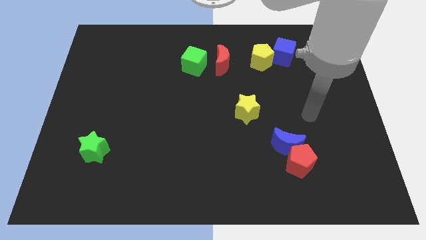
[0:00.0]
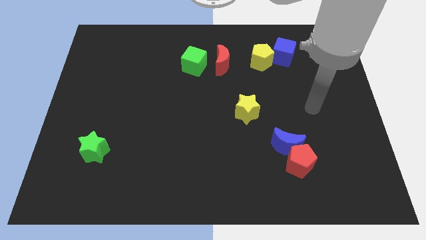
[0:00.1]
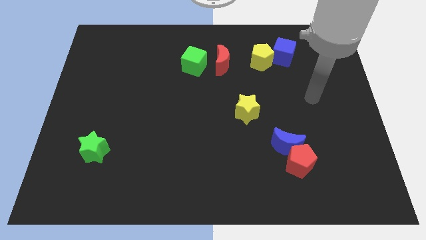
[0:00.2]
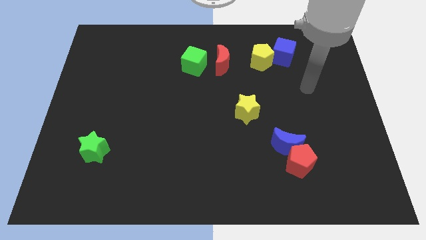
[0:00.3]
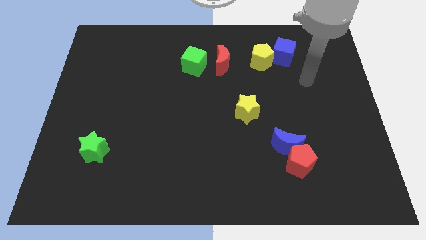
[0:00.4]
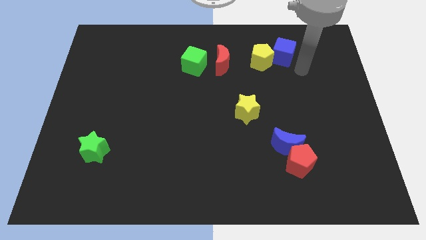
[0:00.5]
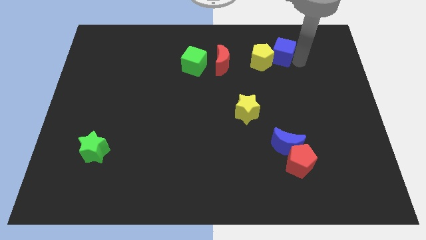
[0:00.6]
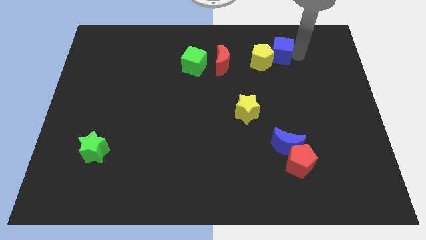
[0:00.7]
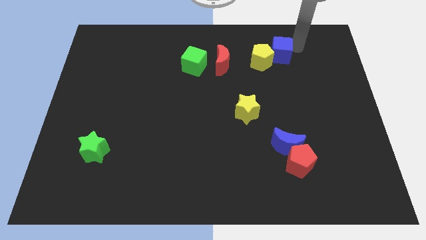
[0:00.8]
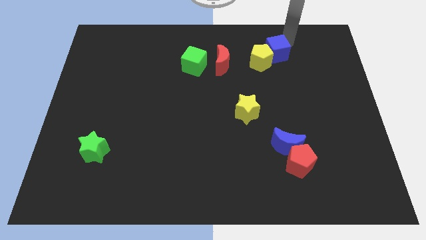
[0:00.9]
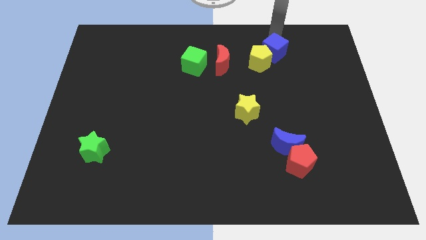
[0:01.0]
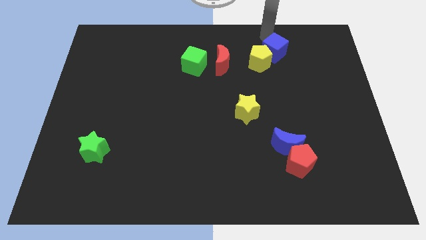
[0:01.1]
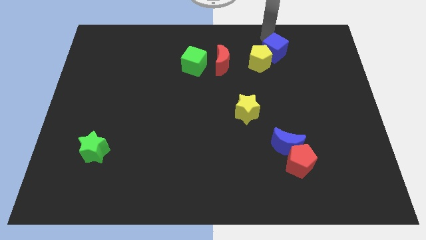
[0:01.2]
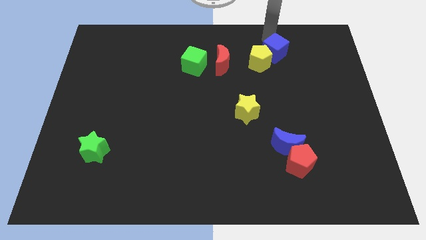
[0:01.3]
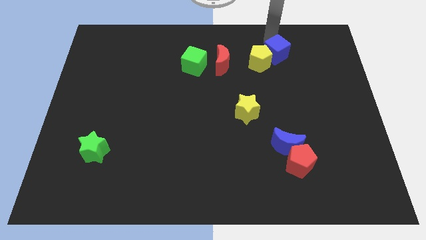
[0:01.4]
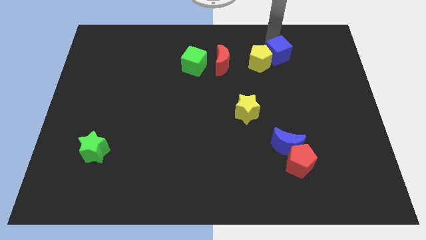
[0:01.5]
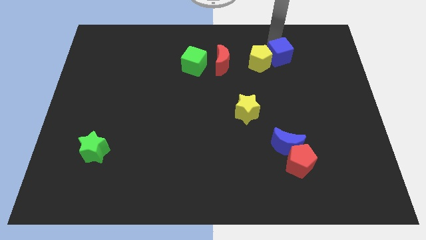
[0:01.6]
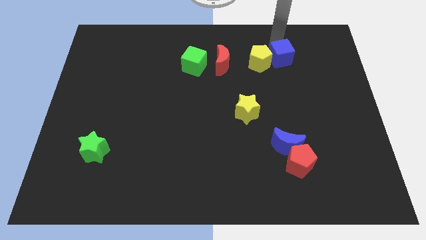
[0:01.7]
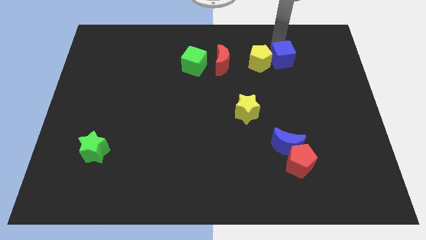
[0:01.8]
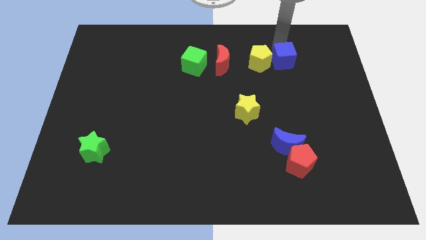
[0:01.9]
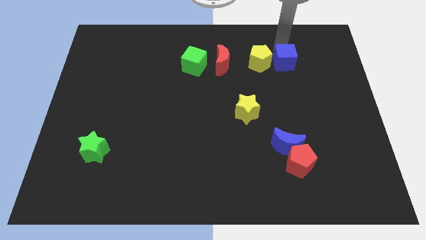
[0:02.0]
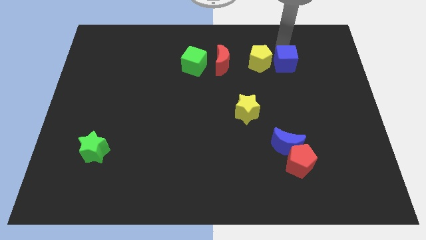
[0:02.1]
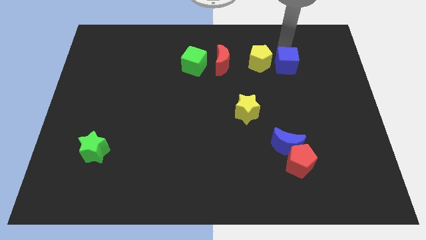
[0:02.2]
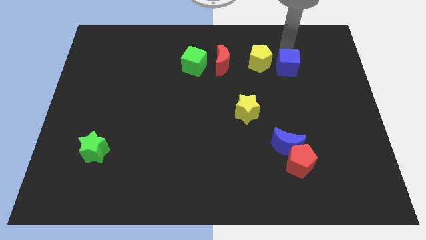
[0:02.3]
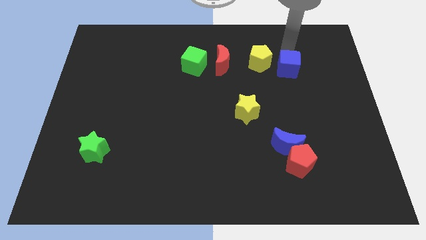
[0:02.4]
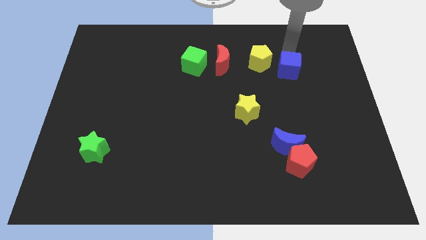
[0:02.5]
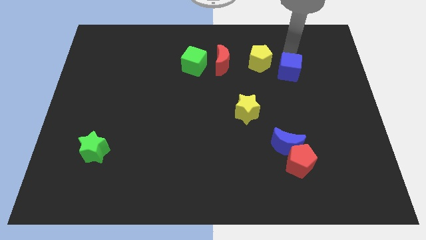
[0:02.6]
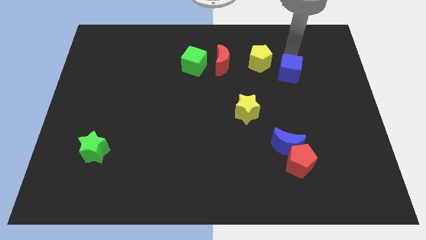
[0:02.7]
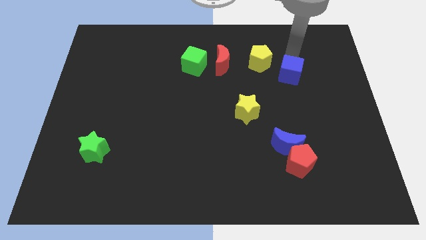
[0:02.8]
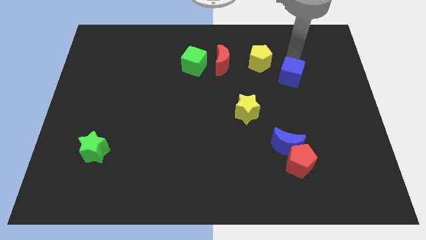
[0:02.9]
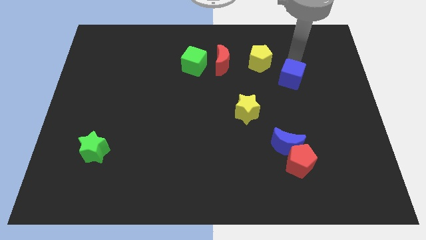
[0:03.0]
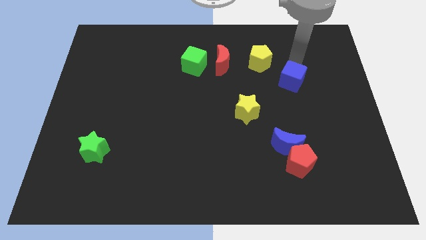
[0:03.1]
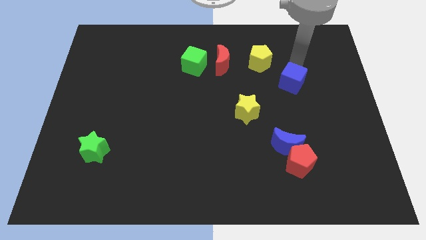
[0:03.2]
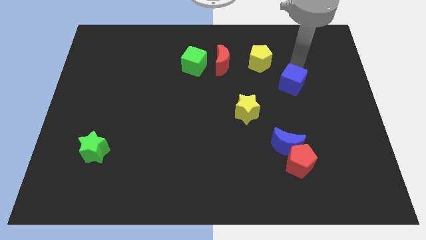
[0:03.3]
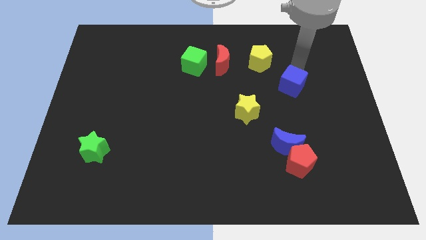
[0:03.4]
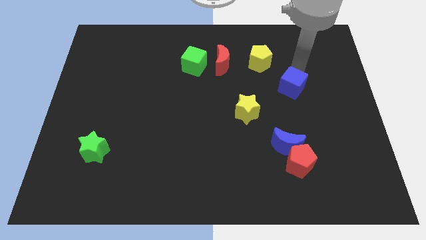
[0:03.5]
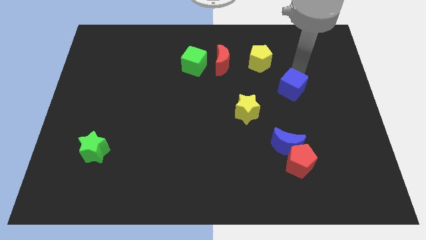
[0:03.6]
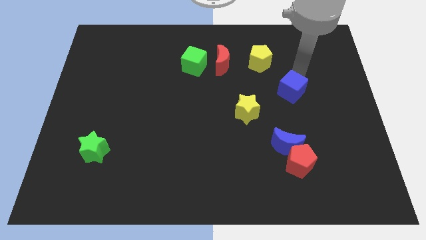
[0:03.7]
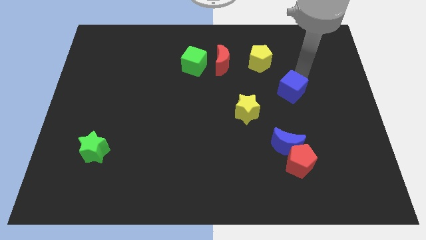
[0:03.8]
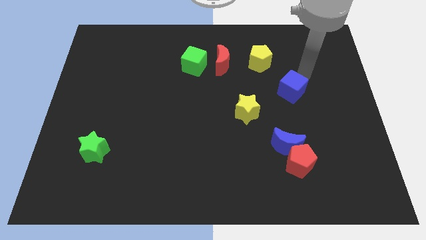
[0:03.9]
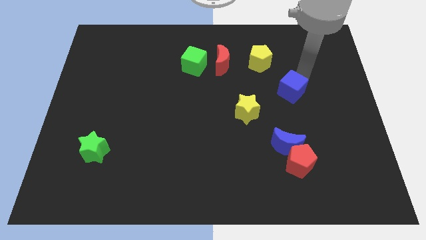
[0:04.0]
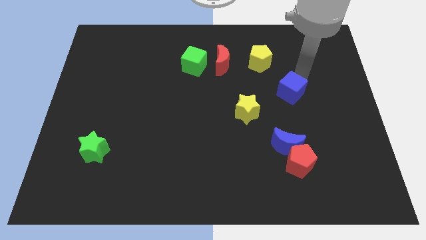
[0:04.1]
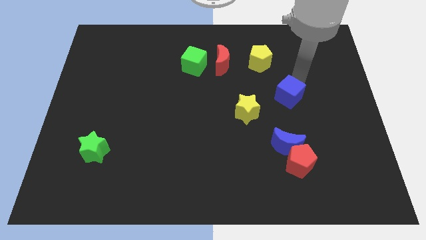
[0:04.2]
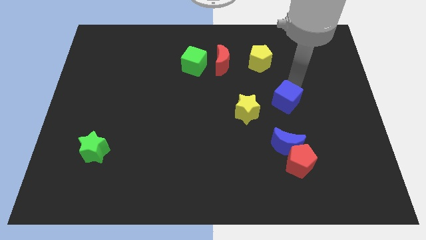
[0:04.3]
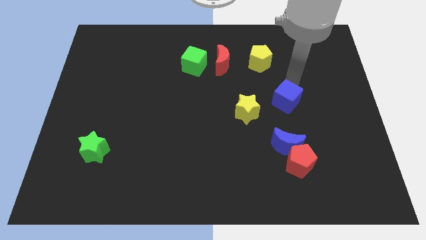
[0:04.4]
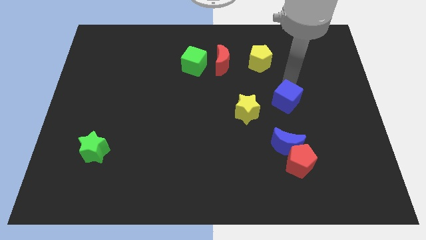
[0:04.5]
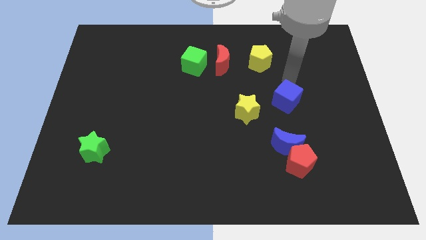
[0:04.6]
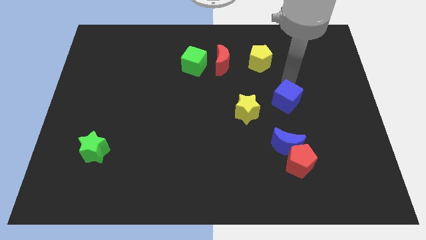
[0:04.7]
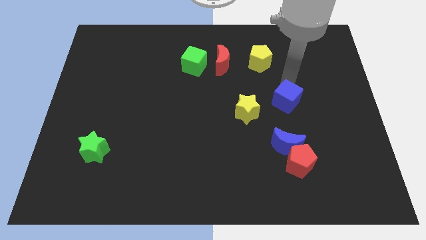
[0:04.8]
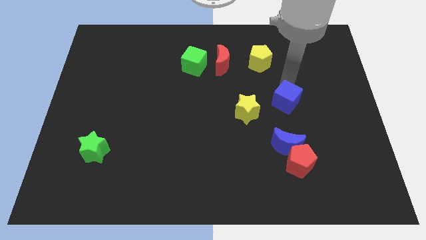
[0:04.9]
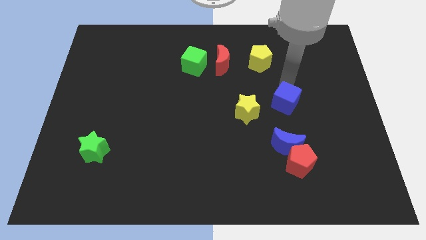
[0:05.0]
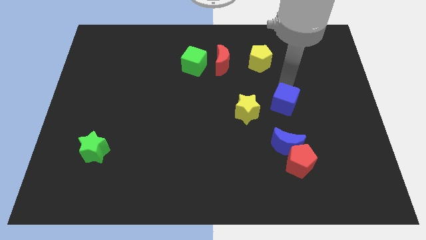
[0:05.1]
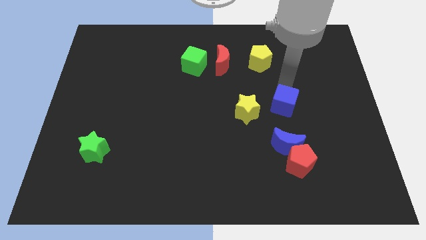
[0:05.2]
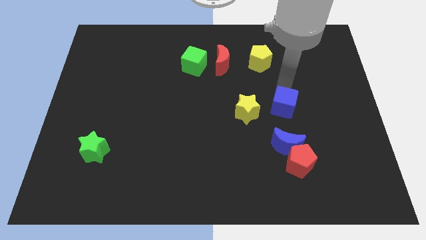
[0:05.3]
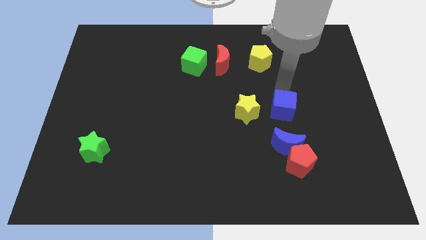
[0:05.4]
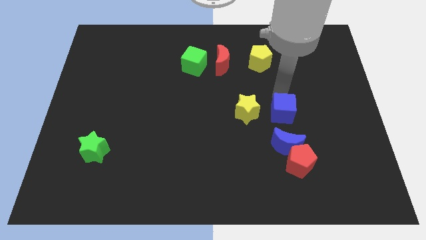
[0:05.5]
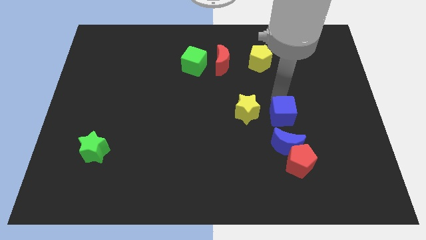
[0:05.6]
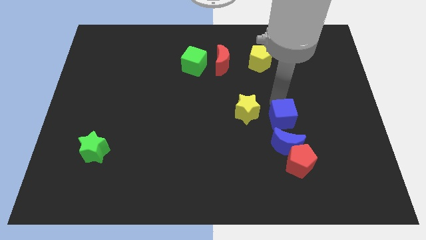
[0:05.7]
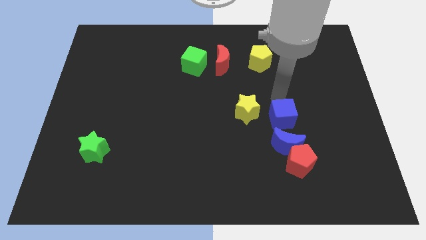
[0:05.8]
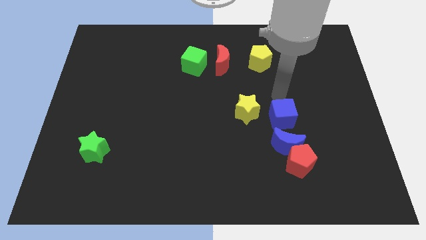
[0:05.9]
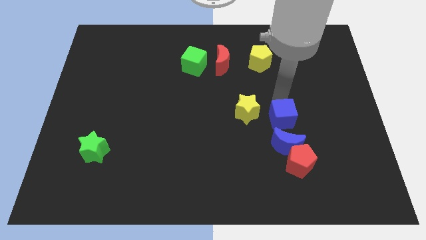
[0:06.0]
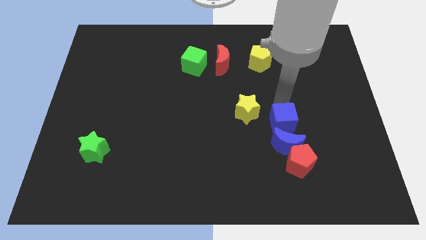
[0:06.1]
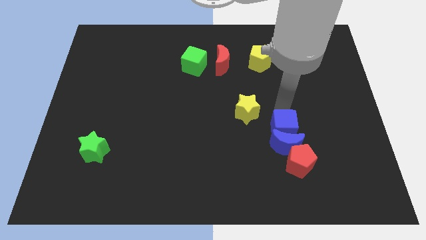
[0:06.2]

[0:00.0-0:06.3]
slide the blue cube next to the blue moon
